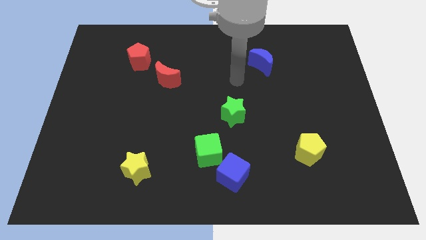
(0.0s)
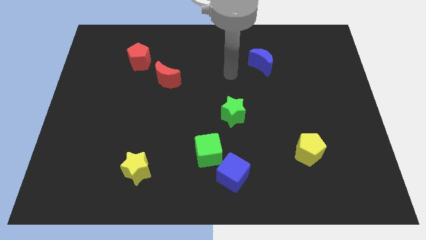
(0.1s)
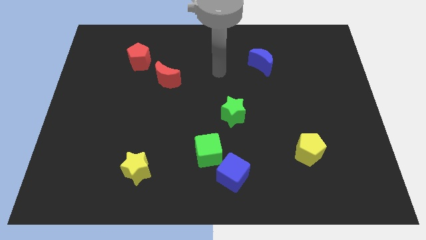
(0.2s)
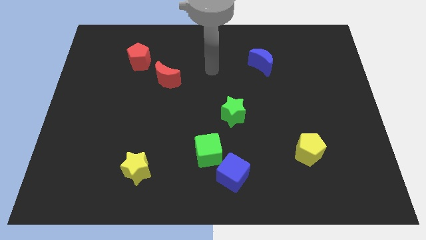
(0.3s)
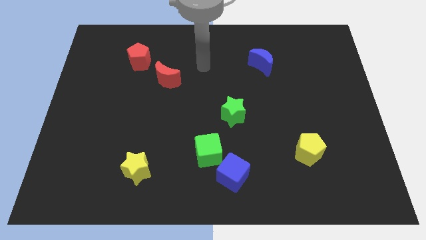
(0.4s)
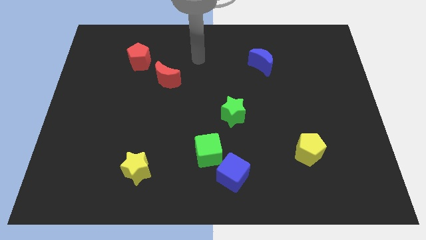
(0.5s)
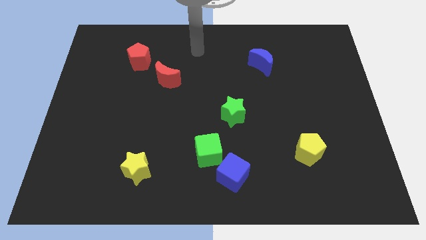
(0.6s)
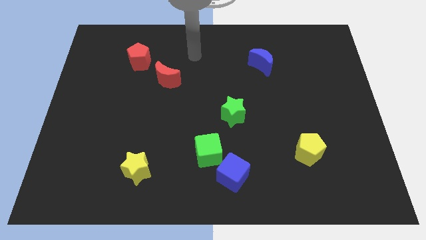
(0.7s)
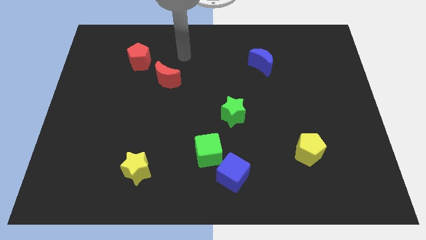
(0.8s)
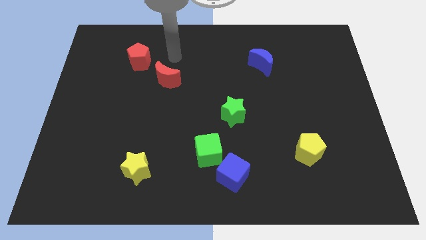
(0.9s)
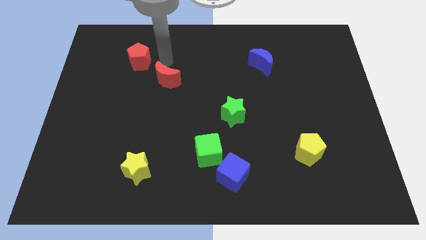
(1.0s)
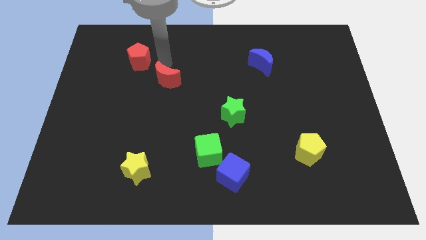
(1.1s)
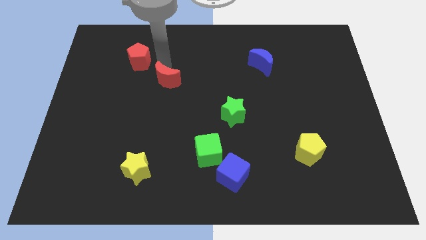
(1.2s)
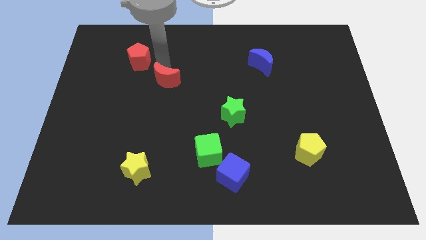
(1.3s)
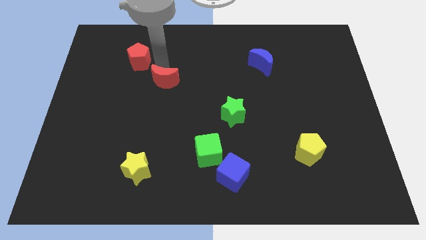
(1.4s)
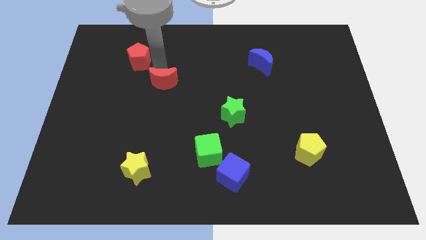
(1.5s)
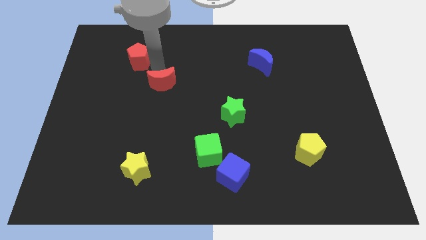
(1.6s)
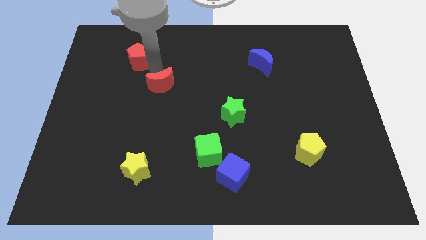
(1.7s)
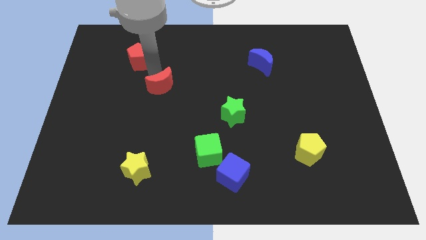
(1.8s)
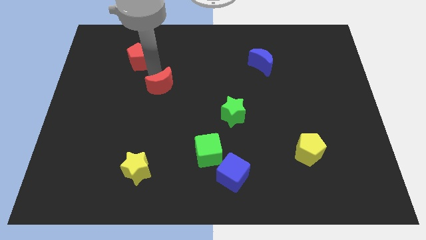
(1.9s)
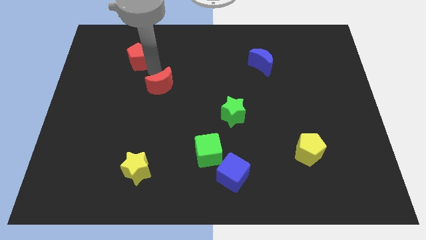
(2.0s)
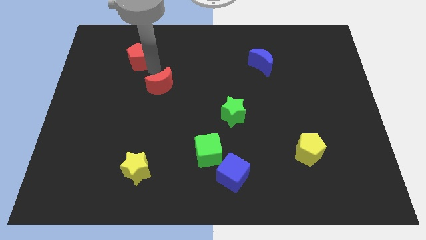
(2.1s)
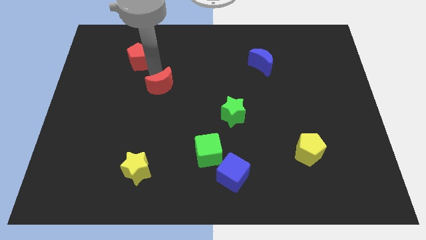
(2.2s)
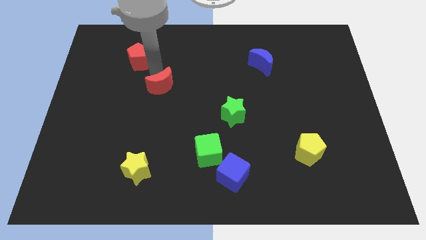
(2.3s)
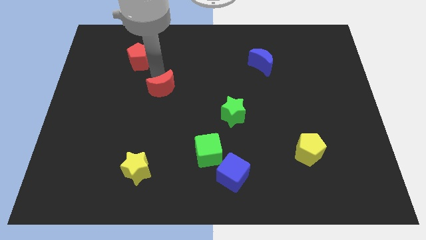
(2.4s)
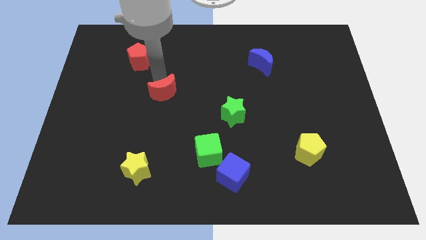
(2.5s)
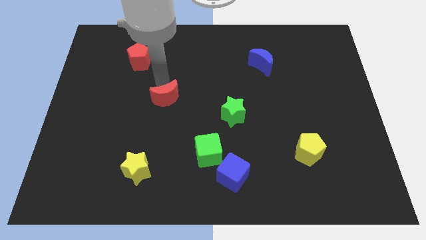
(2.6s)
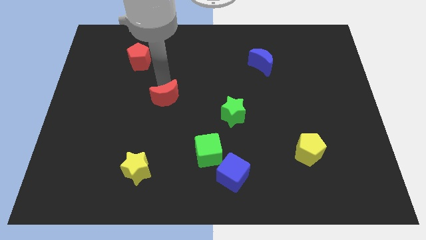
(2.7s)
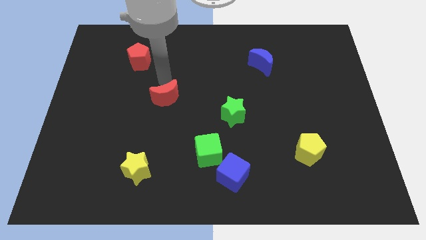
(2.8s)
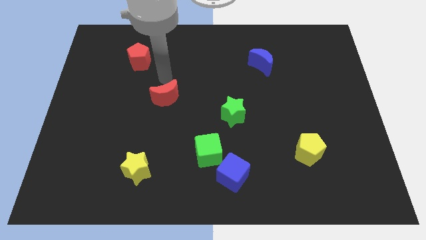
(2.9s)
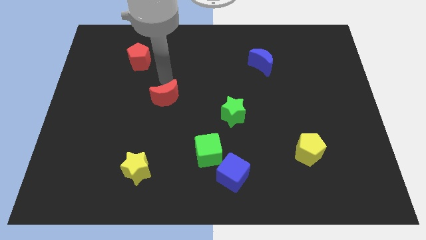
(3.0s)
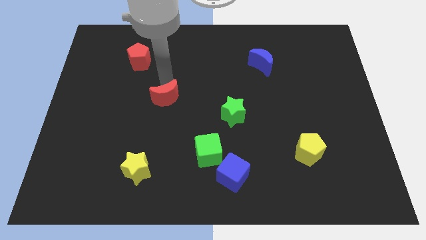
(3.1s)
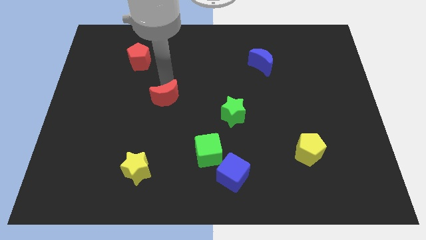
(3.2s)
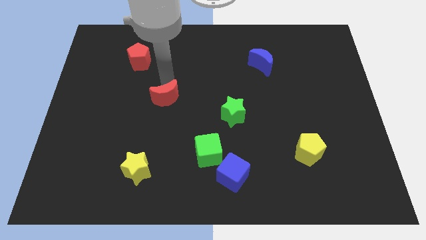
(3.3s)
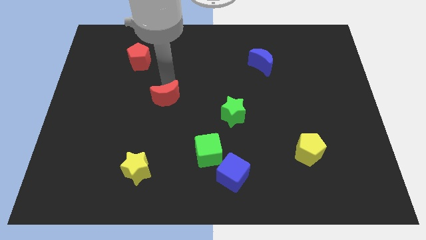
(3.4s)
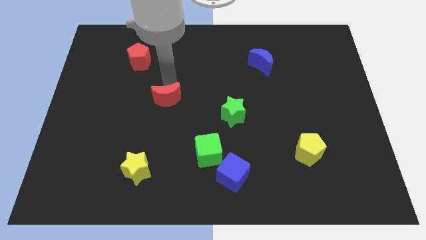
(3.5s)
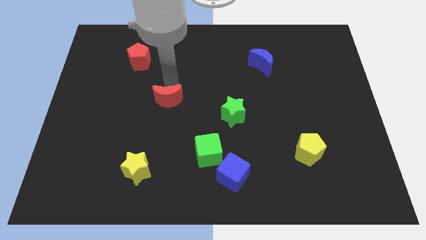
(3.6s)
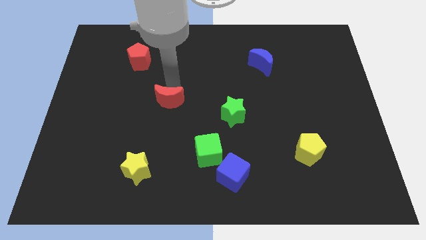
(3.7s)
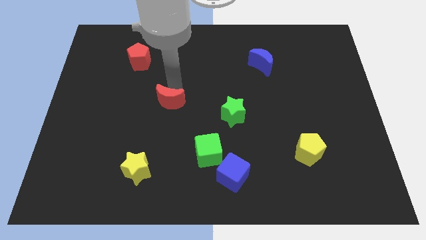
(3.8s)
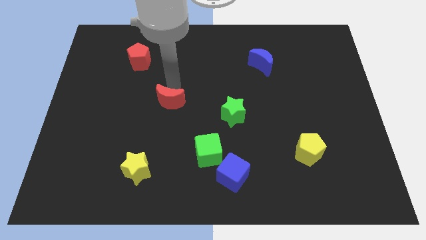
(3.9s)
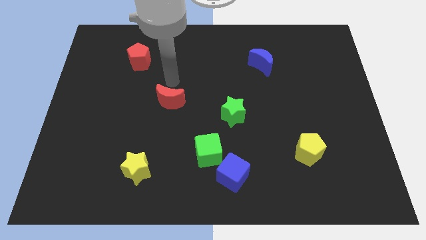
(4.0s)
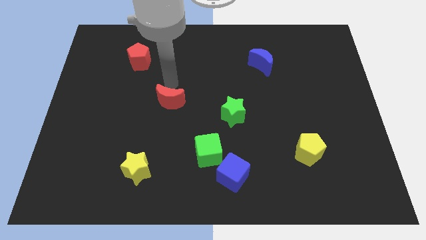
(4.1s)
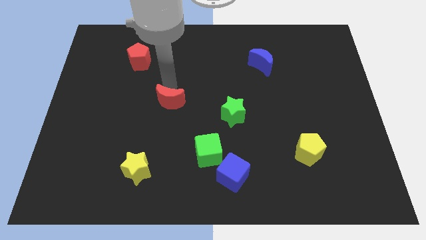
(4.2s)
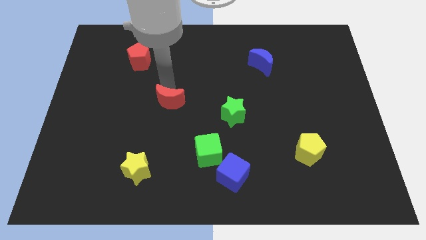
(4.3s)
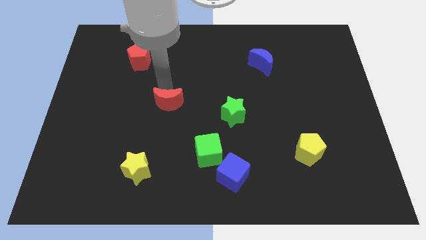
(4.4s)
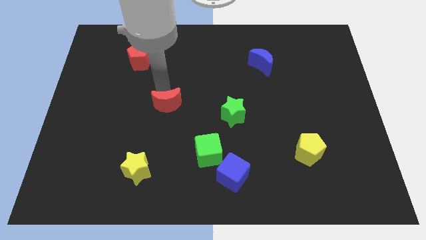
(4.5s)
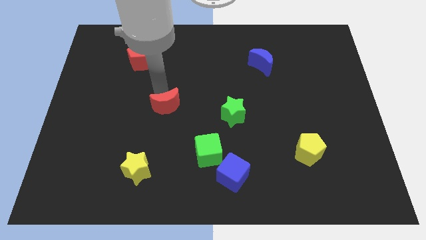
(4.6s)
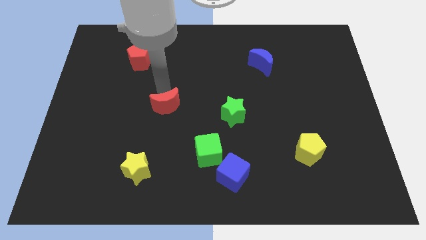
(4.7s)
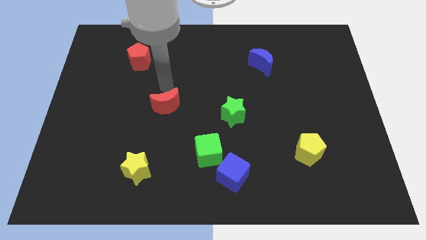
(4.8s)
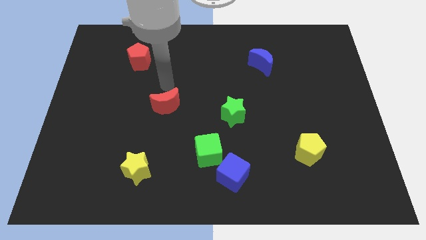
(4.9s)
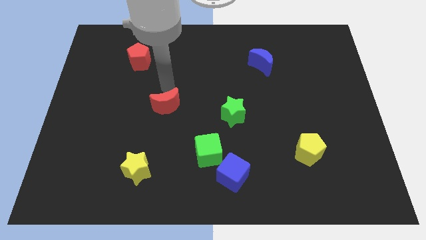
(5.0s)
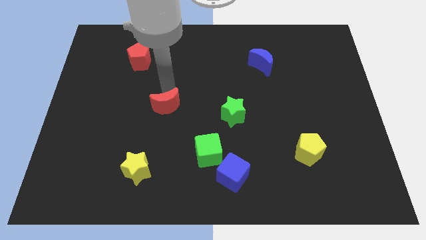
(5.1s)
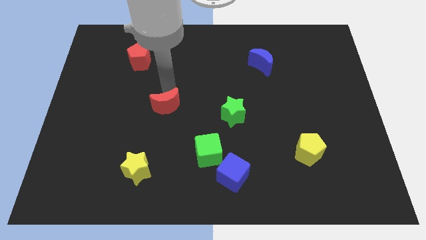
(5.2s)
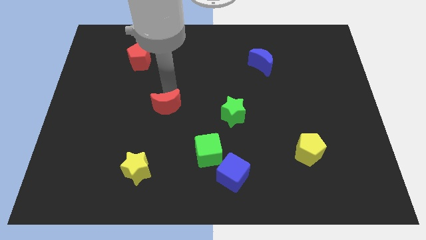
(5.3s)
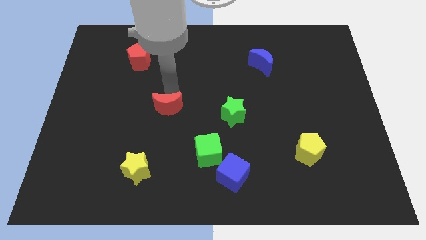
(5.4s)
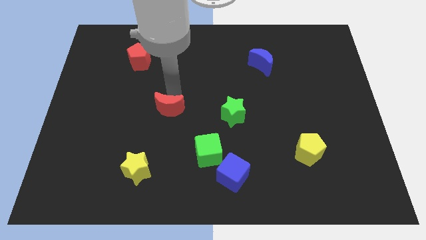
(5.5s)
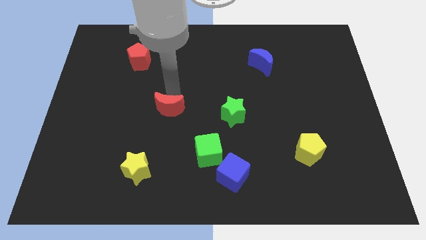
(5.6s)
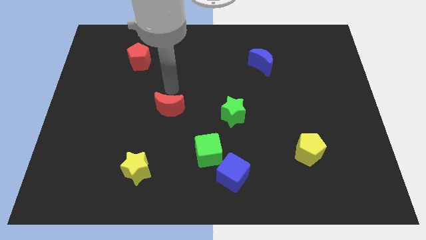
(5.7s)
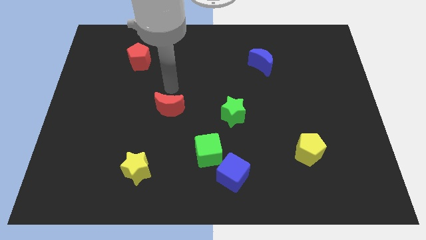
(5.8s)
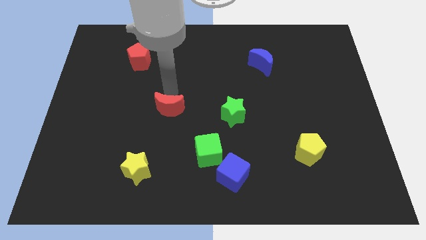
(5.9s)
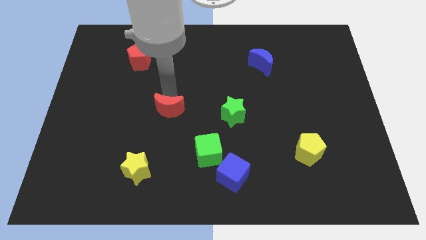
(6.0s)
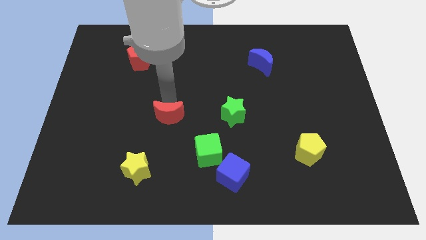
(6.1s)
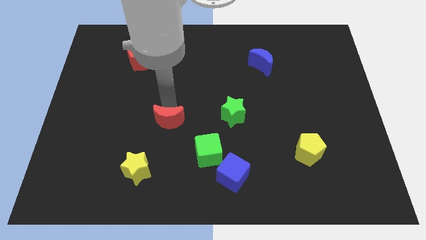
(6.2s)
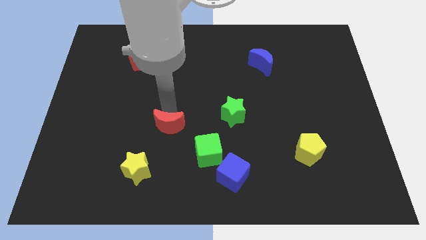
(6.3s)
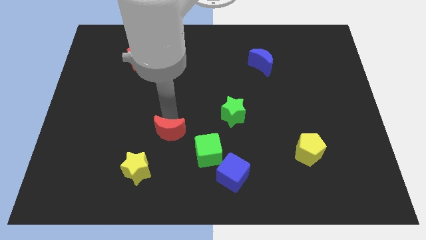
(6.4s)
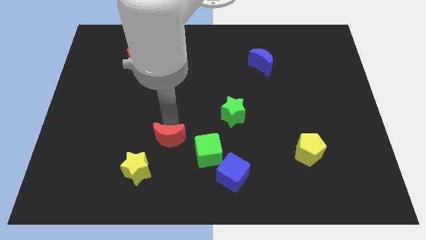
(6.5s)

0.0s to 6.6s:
move the red moon just left of the green cube
